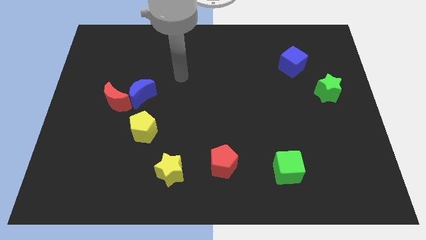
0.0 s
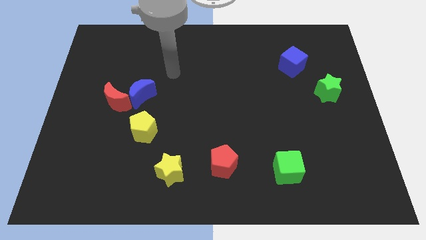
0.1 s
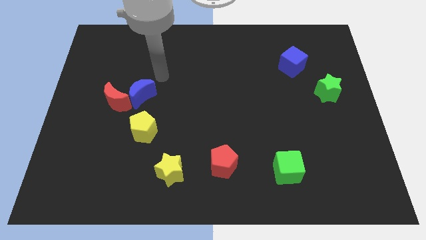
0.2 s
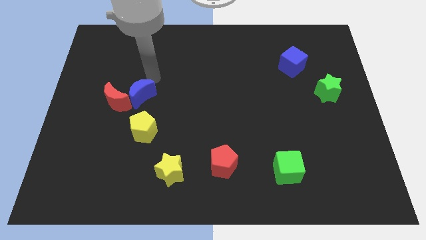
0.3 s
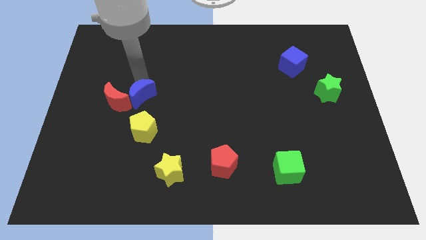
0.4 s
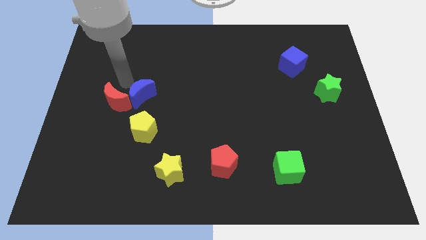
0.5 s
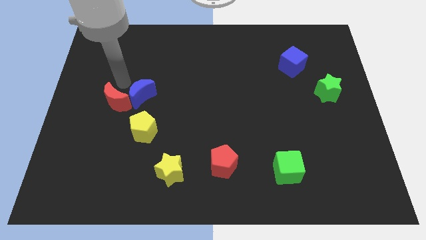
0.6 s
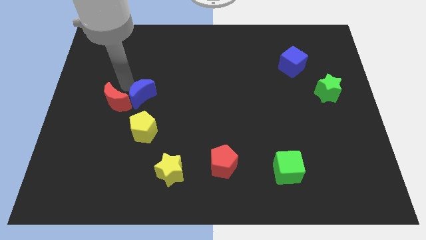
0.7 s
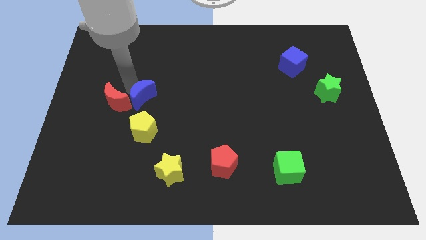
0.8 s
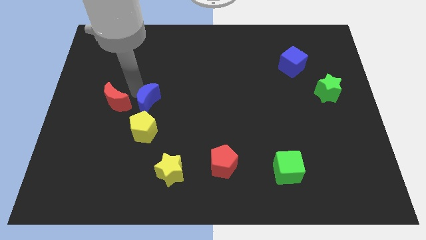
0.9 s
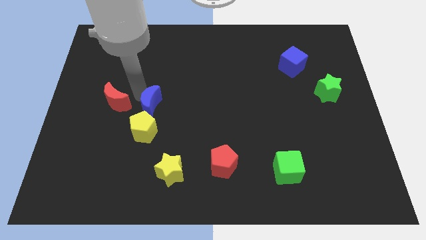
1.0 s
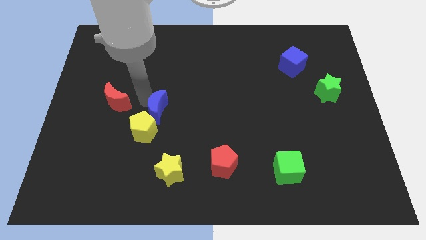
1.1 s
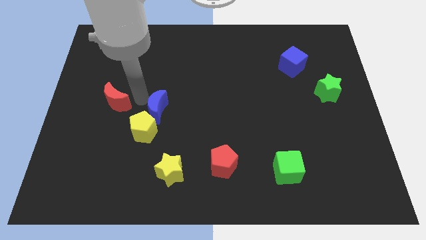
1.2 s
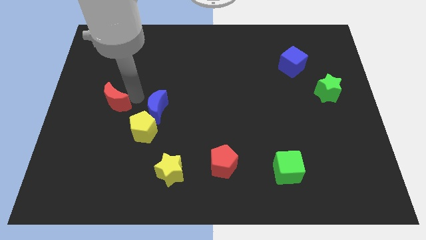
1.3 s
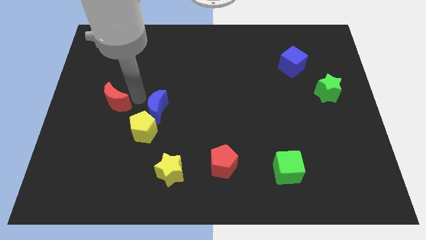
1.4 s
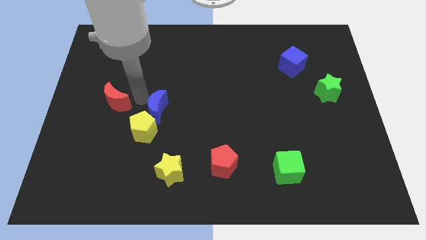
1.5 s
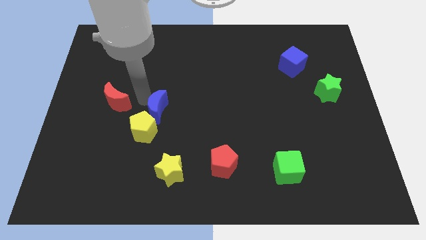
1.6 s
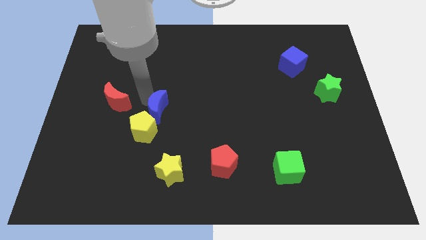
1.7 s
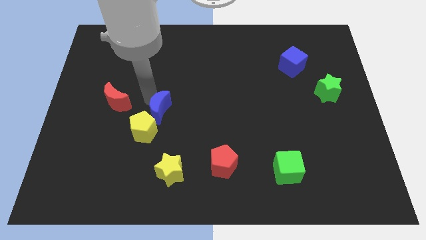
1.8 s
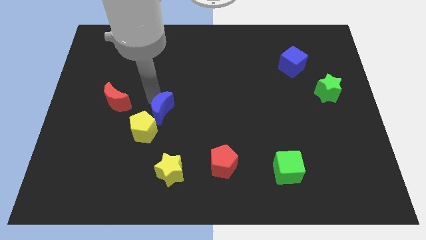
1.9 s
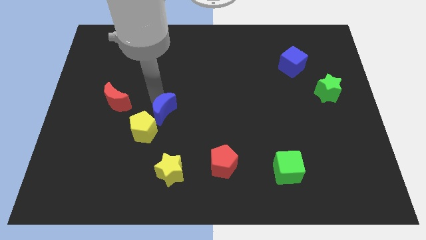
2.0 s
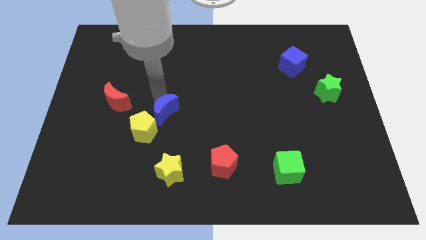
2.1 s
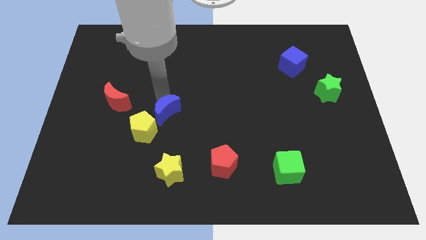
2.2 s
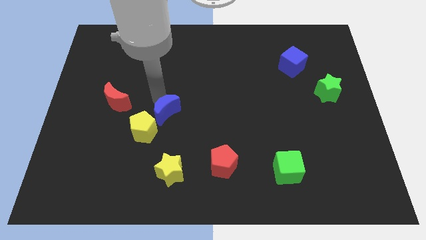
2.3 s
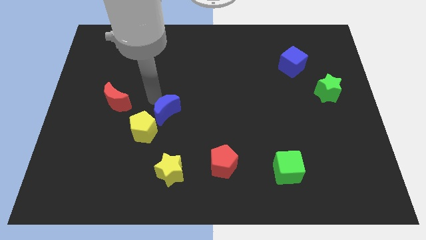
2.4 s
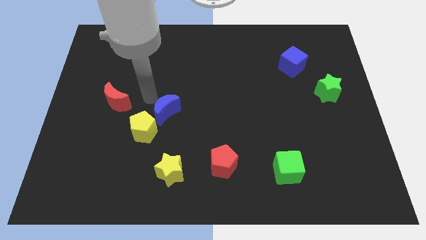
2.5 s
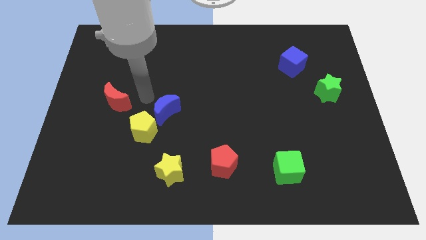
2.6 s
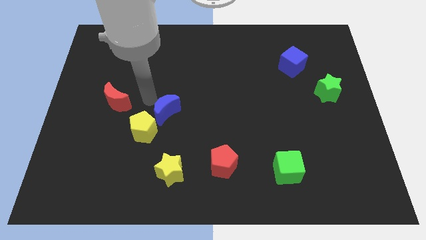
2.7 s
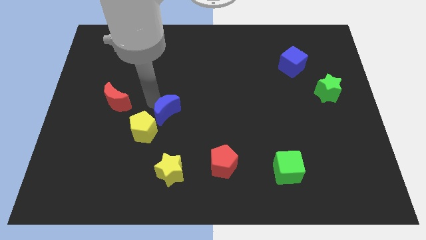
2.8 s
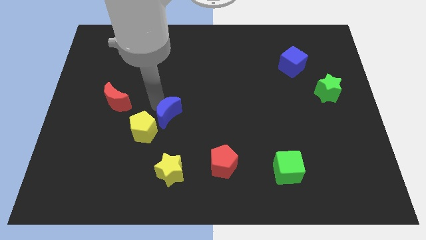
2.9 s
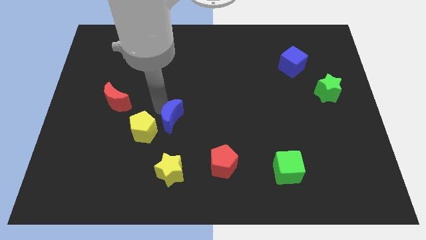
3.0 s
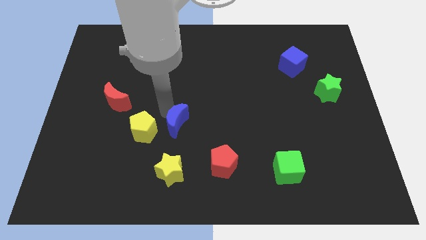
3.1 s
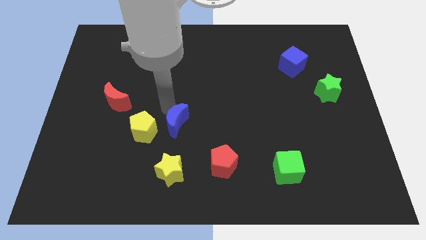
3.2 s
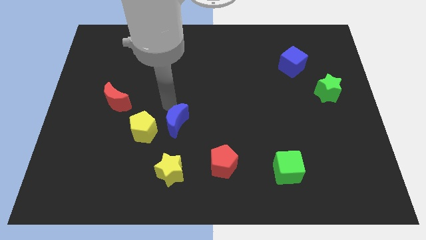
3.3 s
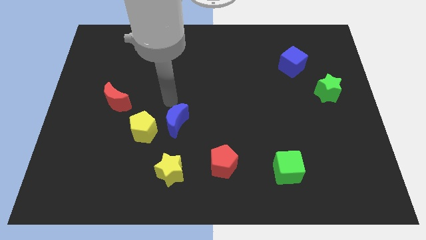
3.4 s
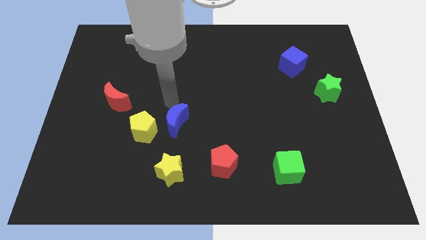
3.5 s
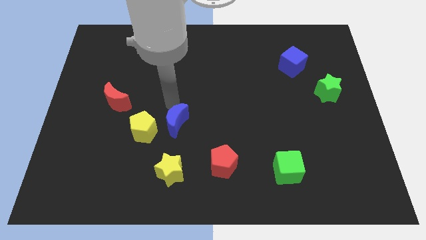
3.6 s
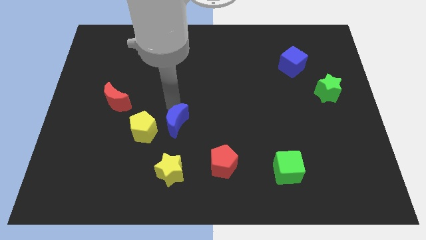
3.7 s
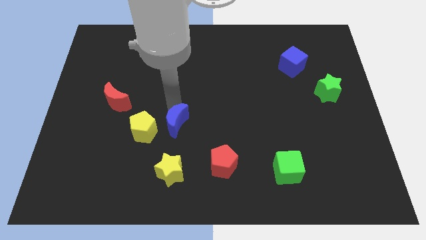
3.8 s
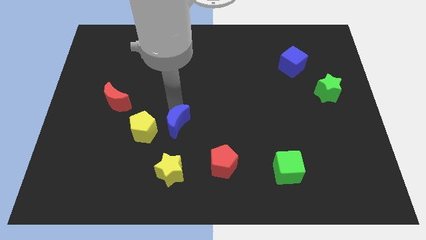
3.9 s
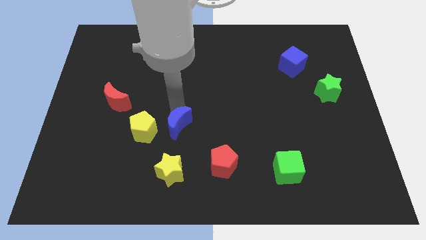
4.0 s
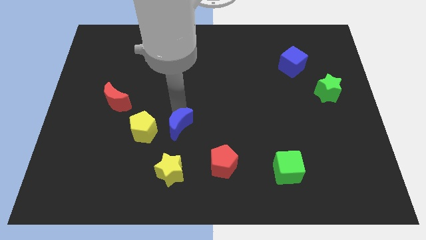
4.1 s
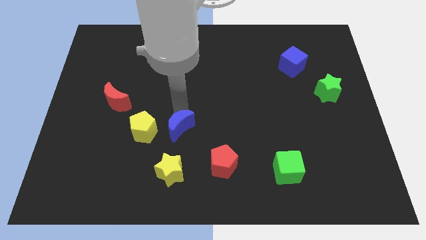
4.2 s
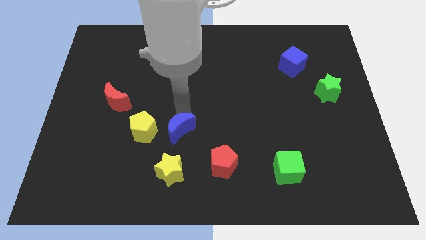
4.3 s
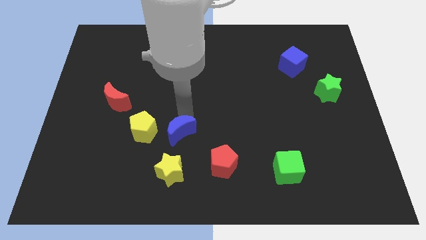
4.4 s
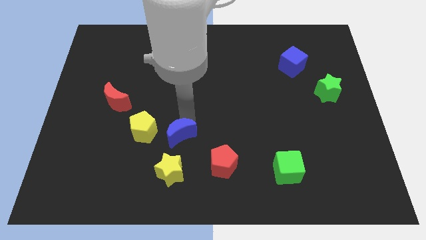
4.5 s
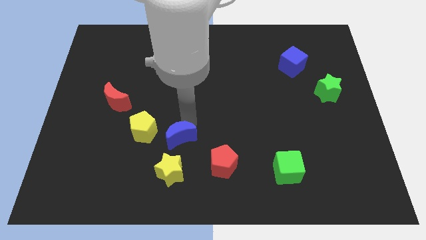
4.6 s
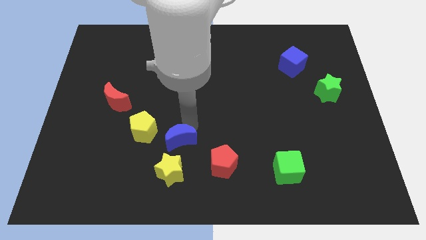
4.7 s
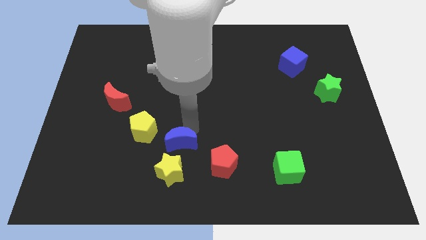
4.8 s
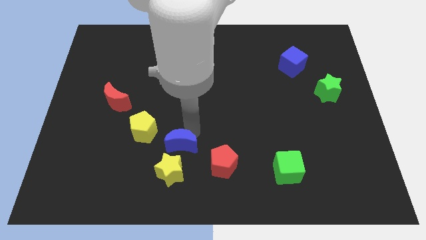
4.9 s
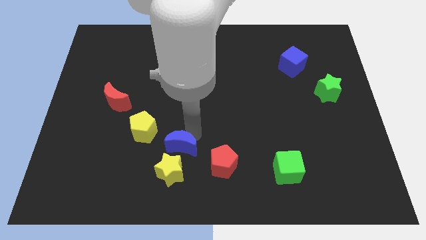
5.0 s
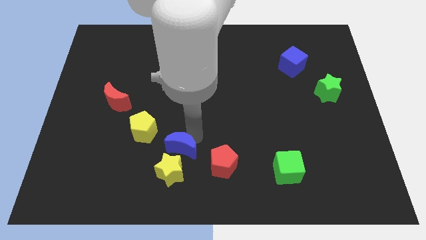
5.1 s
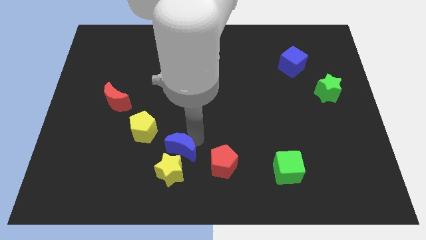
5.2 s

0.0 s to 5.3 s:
slide the blue moon next to the yellow star

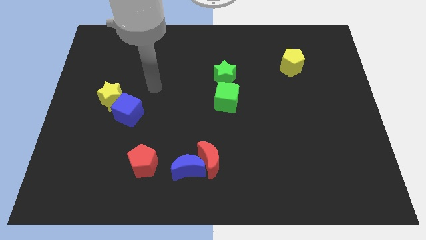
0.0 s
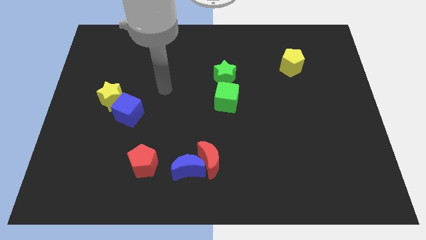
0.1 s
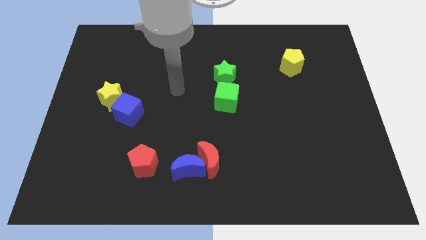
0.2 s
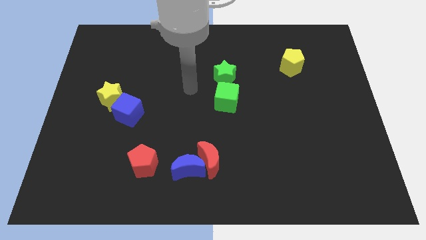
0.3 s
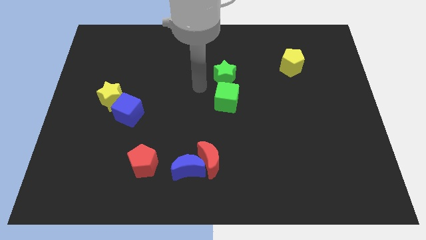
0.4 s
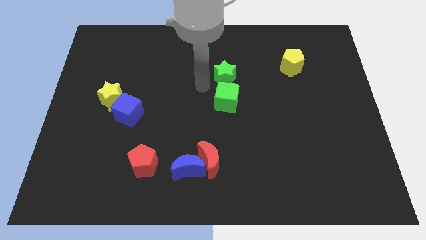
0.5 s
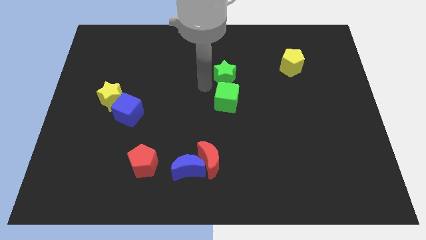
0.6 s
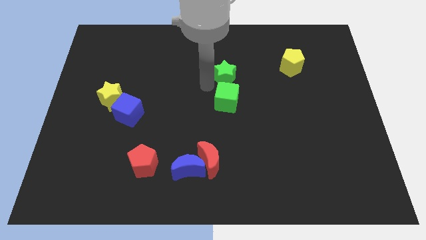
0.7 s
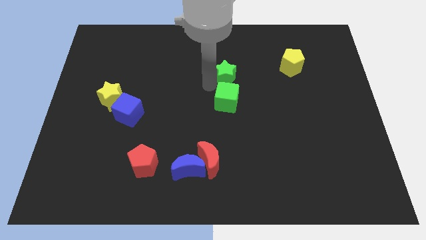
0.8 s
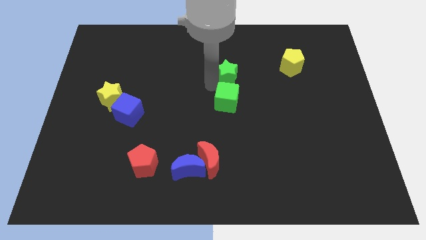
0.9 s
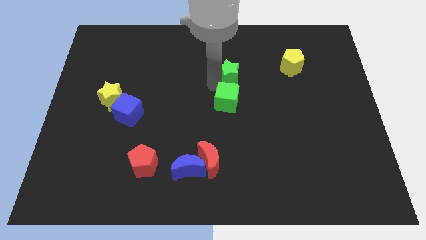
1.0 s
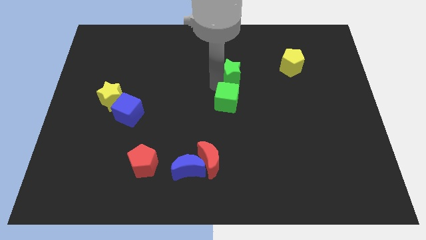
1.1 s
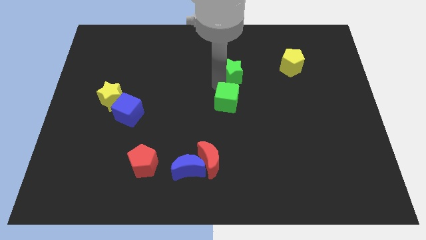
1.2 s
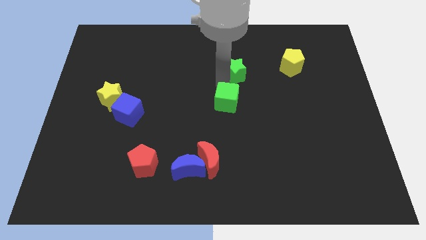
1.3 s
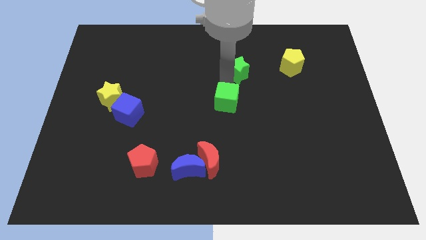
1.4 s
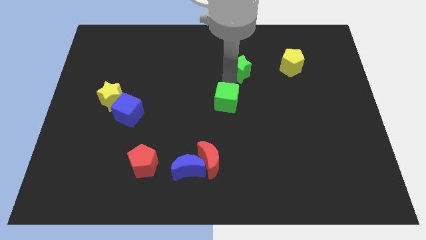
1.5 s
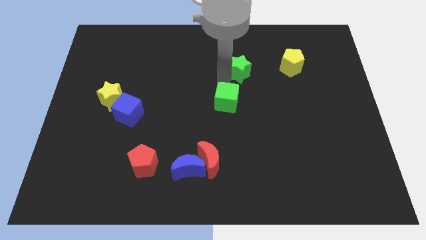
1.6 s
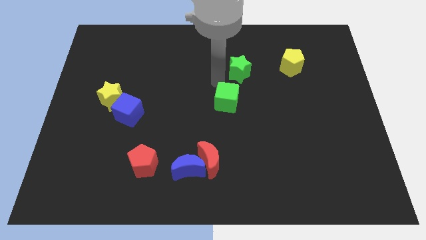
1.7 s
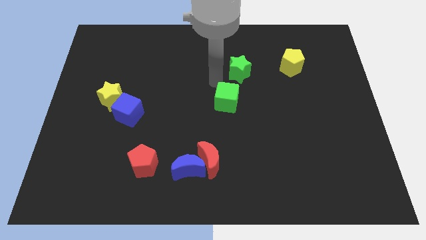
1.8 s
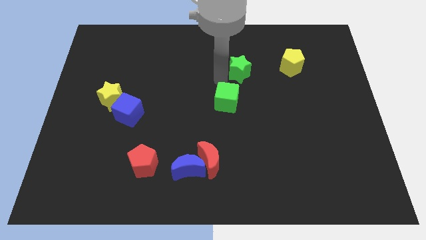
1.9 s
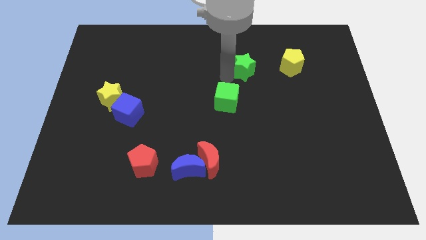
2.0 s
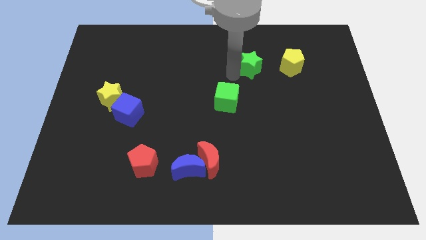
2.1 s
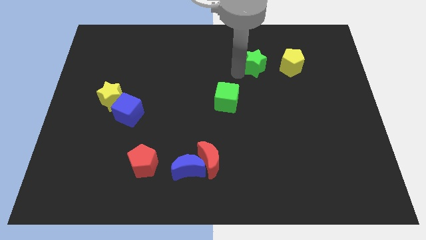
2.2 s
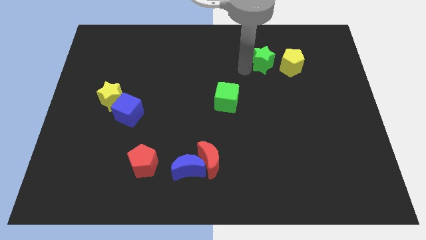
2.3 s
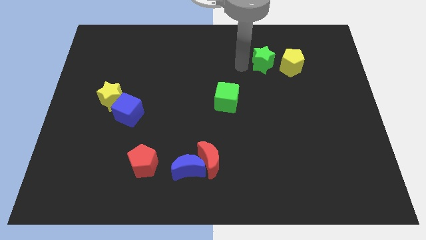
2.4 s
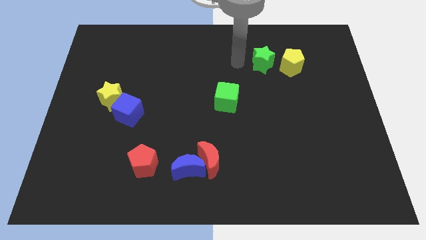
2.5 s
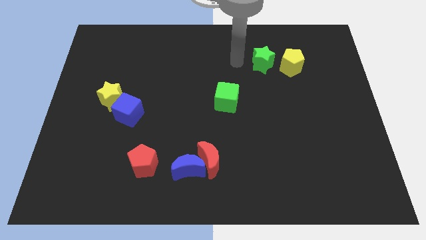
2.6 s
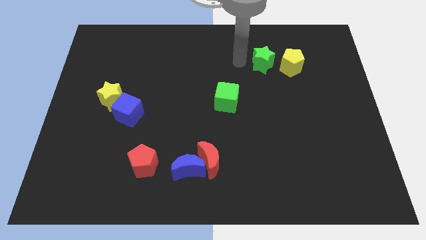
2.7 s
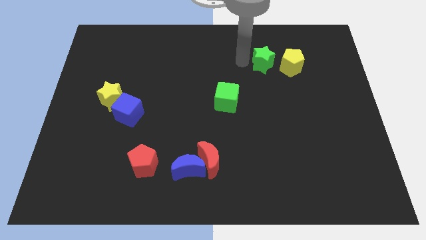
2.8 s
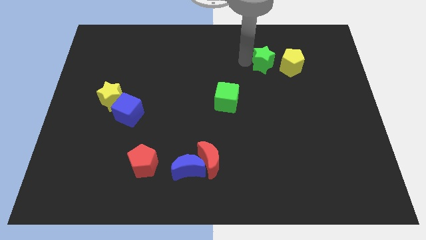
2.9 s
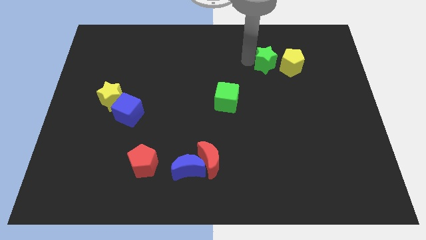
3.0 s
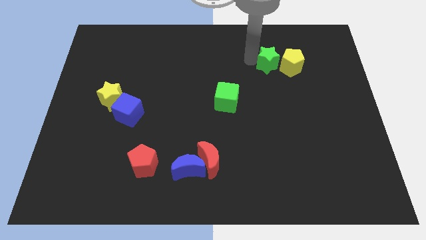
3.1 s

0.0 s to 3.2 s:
put the green star to the yellow pentagon
